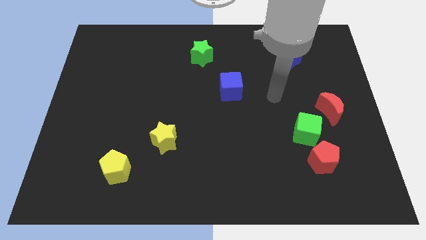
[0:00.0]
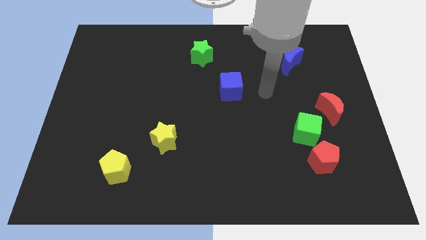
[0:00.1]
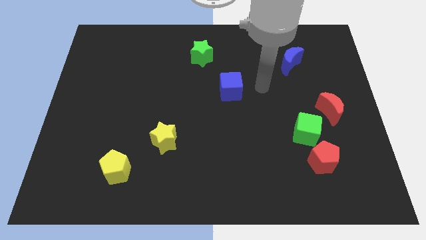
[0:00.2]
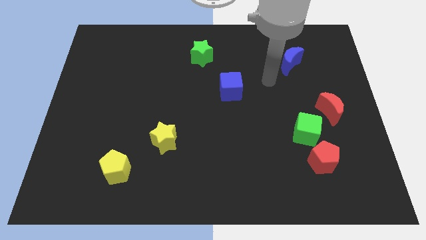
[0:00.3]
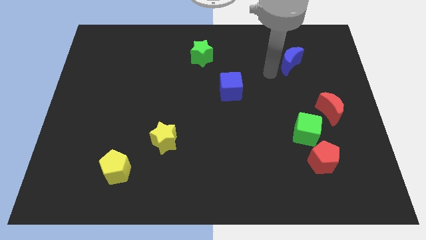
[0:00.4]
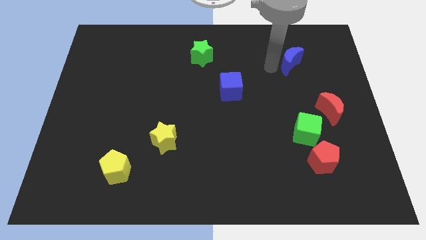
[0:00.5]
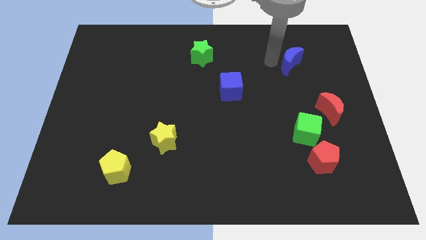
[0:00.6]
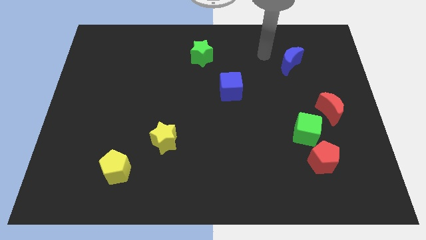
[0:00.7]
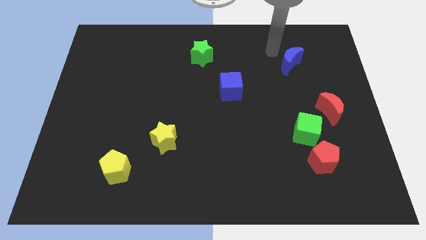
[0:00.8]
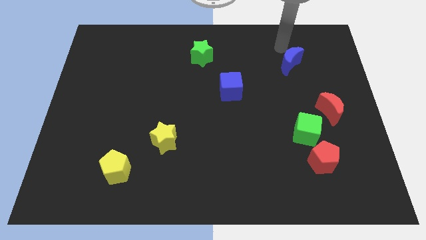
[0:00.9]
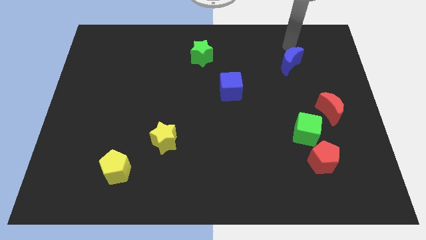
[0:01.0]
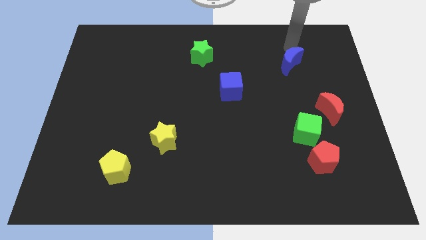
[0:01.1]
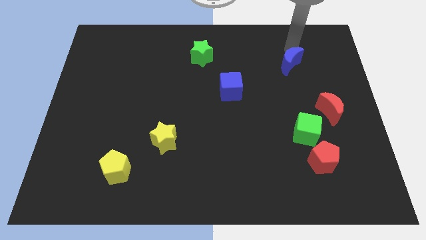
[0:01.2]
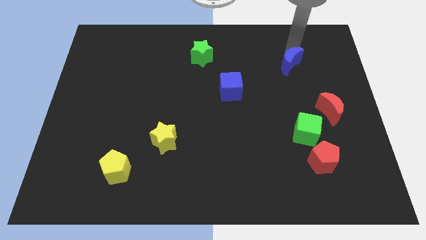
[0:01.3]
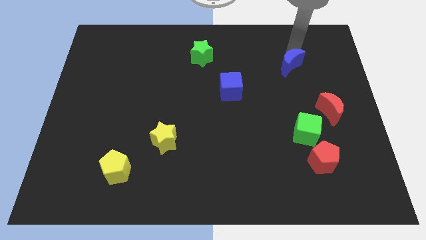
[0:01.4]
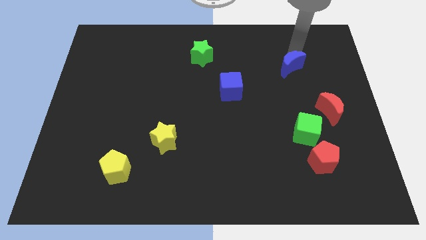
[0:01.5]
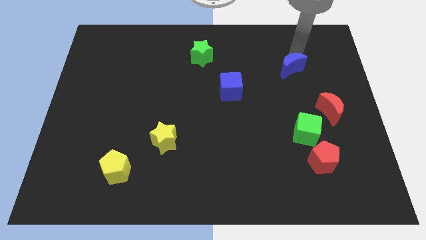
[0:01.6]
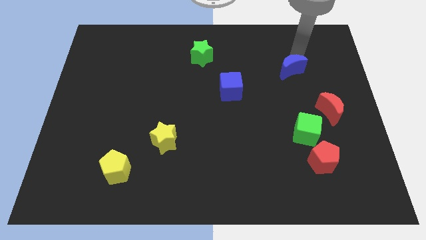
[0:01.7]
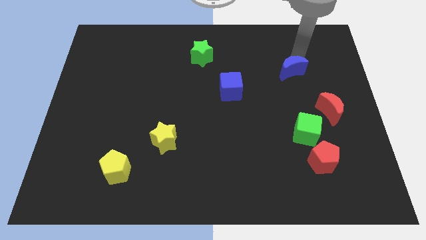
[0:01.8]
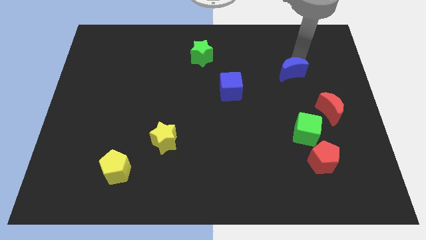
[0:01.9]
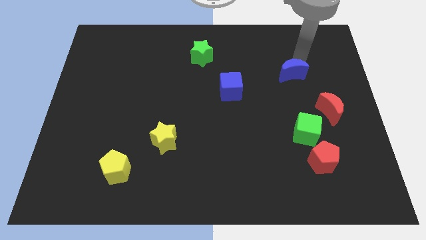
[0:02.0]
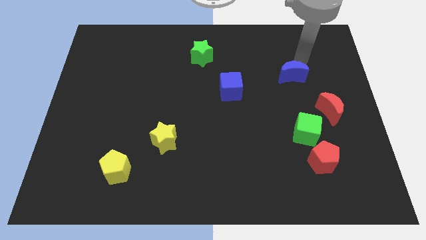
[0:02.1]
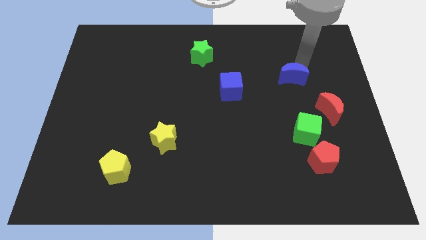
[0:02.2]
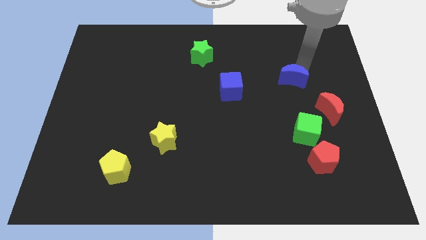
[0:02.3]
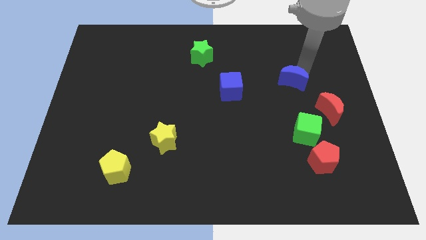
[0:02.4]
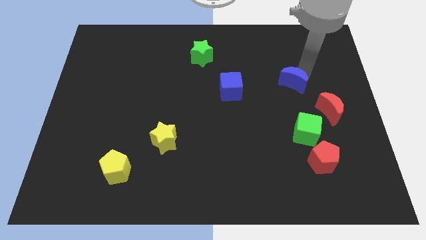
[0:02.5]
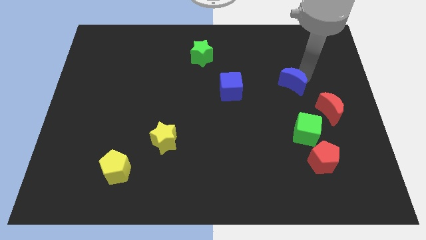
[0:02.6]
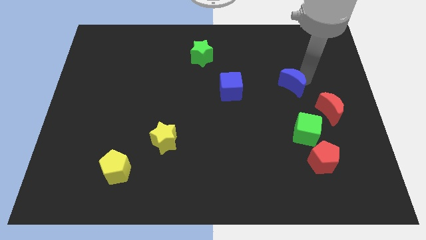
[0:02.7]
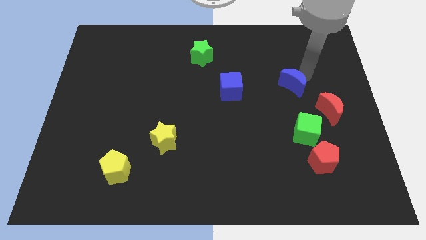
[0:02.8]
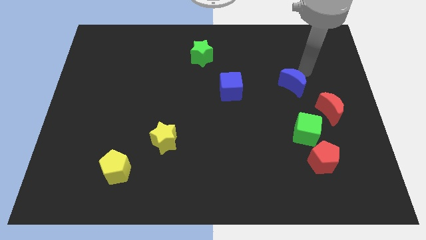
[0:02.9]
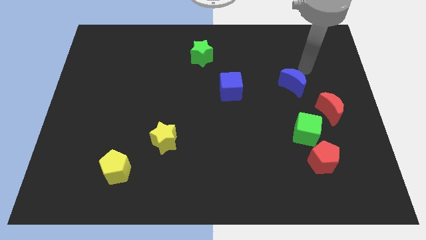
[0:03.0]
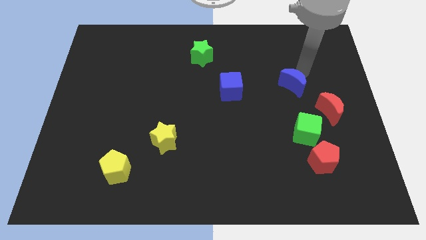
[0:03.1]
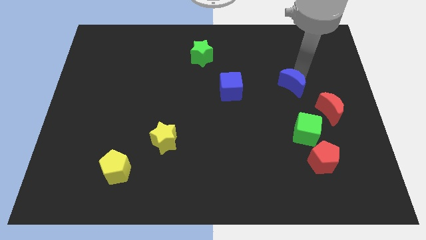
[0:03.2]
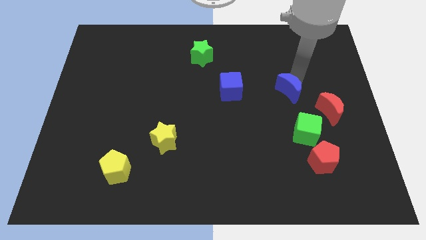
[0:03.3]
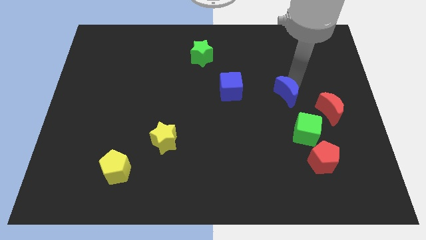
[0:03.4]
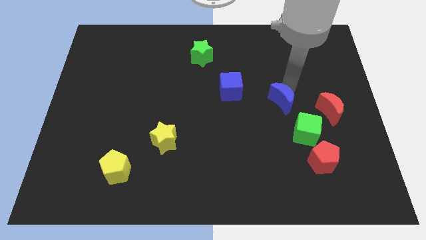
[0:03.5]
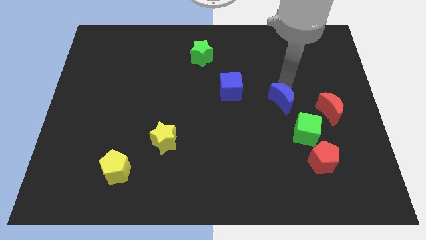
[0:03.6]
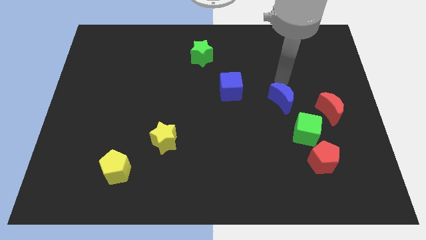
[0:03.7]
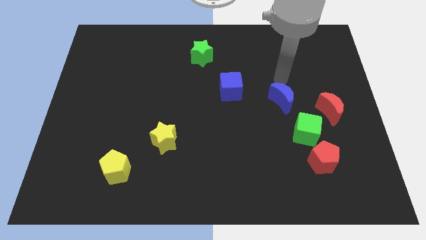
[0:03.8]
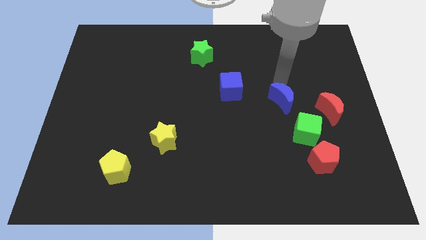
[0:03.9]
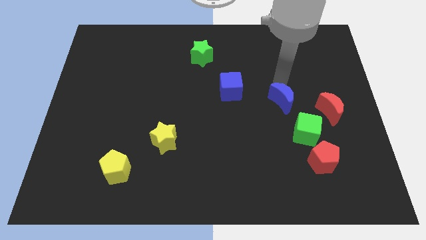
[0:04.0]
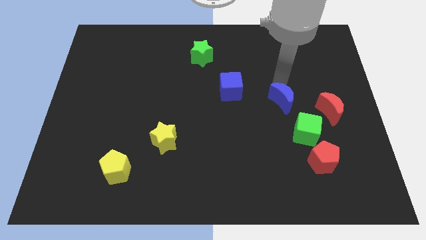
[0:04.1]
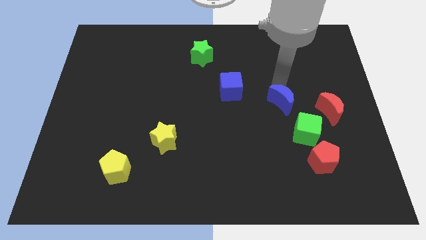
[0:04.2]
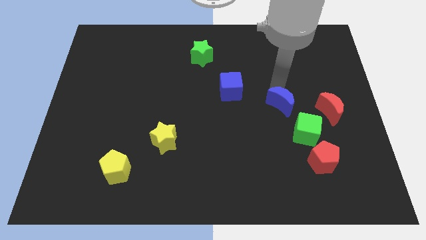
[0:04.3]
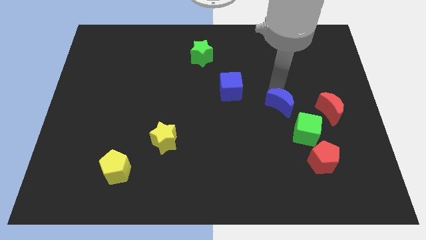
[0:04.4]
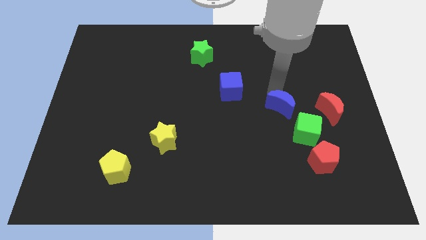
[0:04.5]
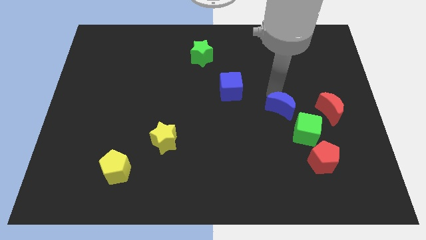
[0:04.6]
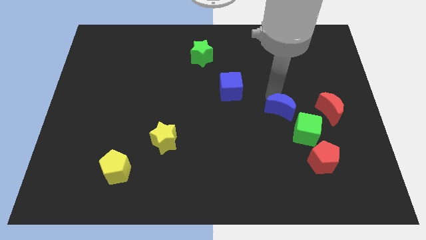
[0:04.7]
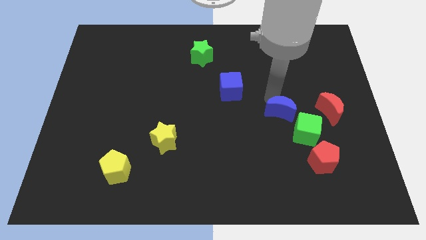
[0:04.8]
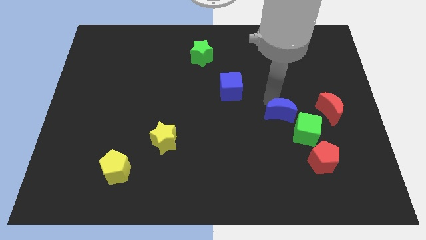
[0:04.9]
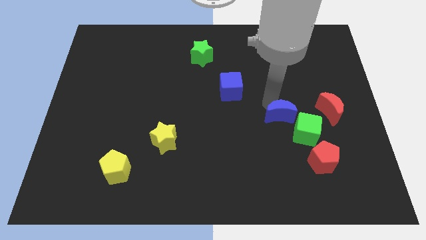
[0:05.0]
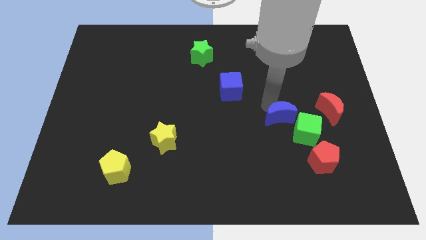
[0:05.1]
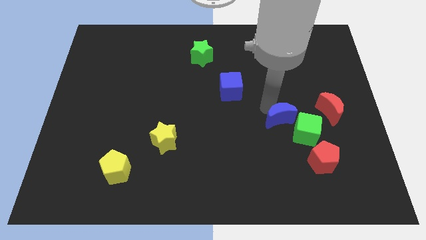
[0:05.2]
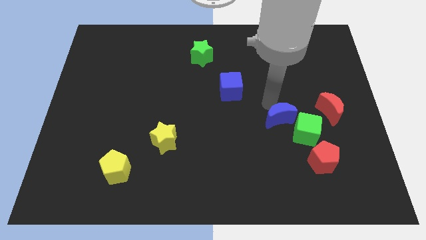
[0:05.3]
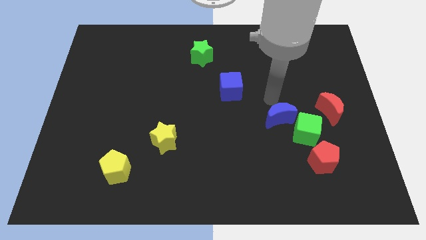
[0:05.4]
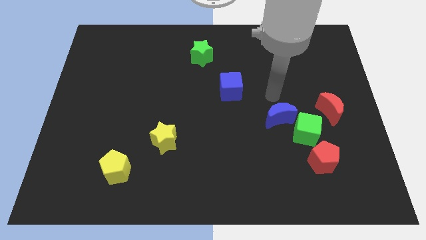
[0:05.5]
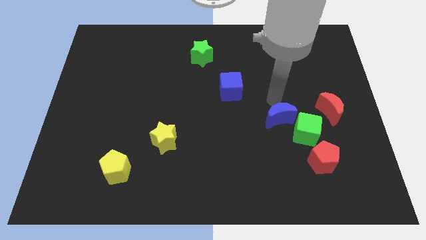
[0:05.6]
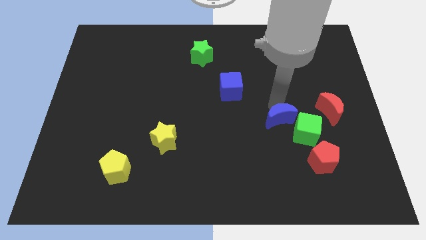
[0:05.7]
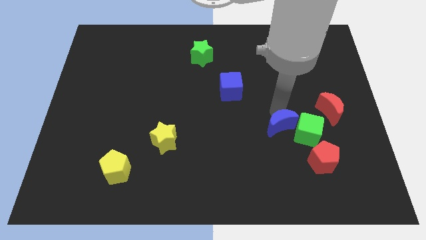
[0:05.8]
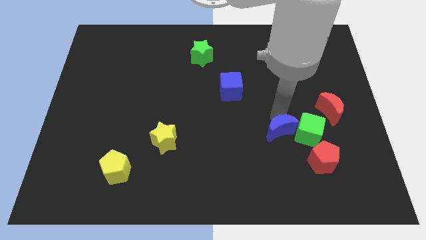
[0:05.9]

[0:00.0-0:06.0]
slide the blue moon downwards

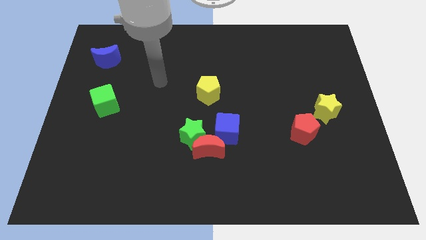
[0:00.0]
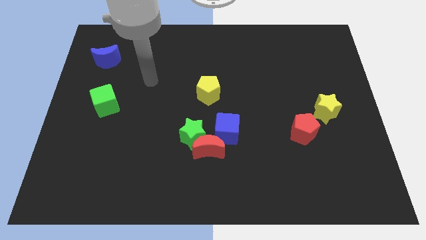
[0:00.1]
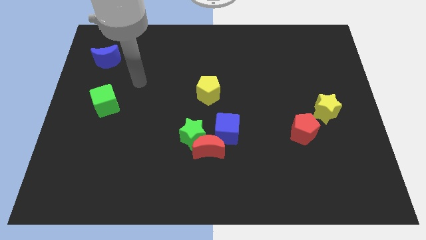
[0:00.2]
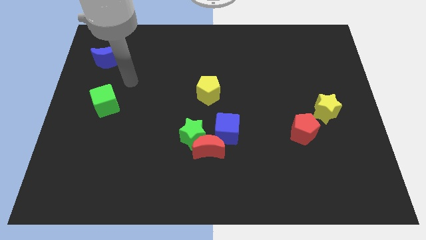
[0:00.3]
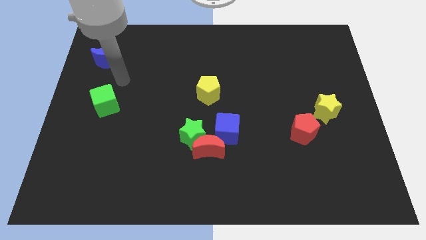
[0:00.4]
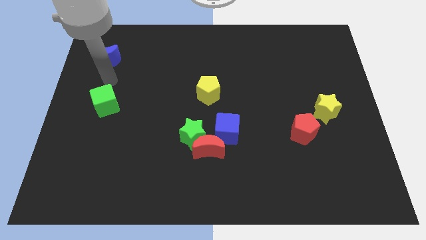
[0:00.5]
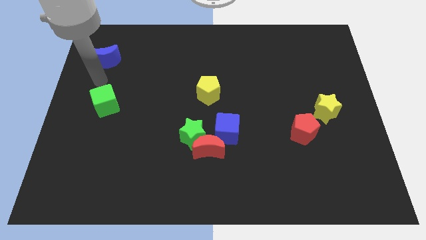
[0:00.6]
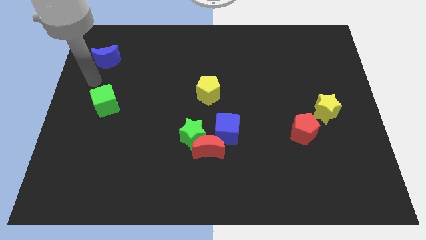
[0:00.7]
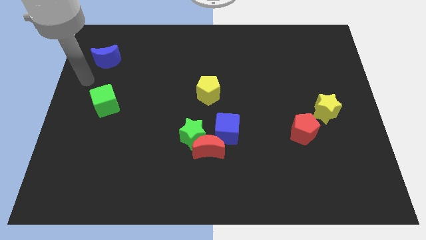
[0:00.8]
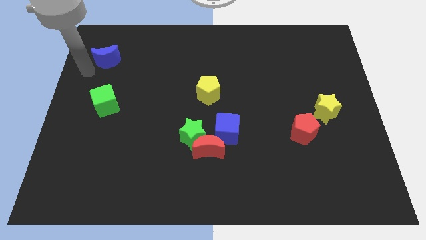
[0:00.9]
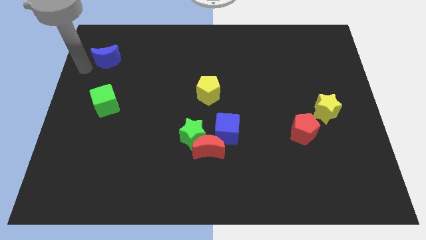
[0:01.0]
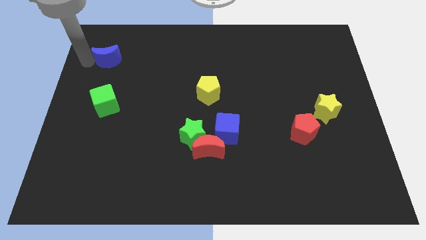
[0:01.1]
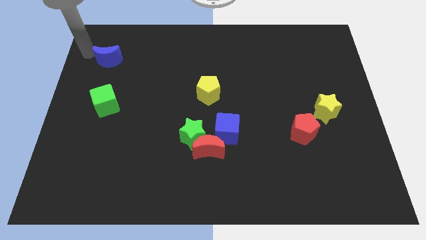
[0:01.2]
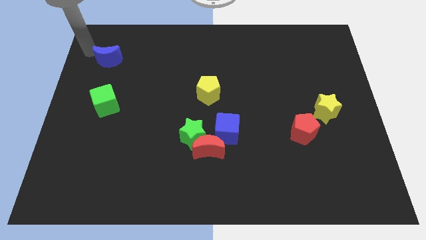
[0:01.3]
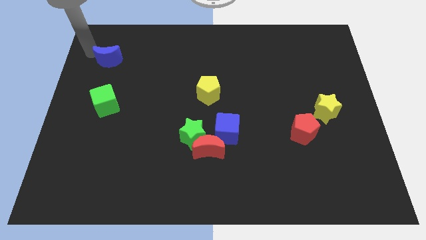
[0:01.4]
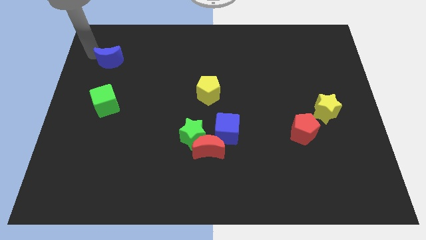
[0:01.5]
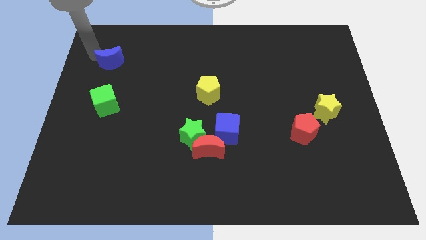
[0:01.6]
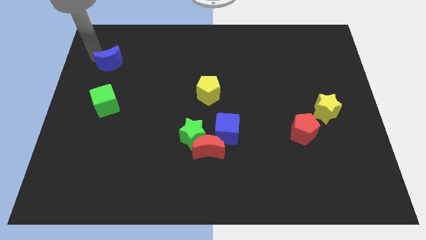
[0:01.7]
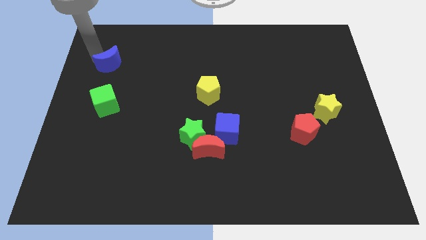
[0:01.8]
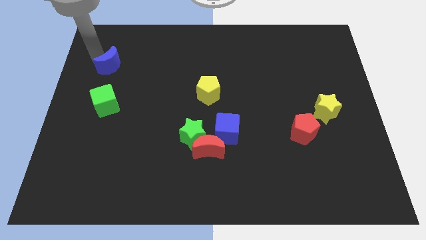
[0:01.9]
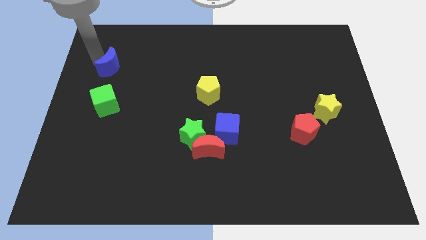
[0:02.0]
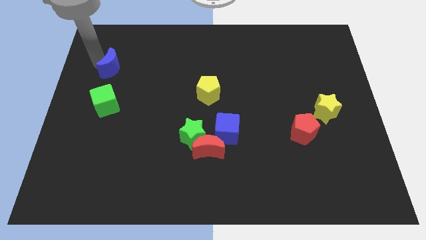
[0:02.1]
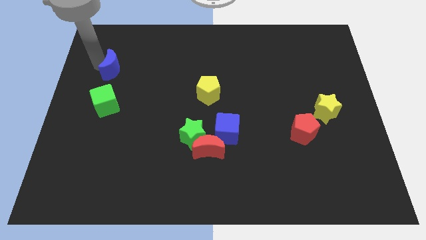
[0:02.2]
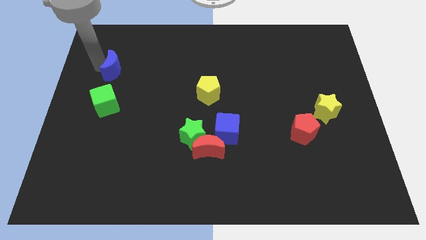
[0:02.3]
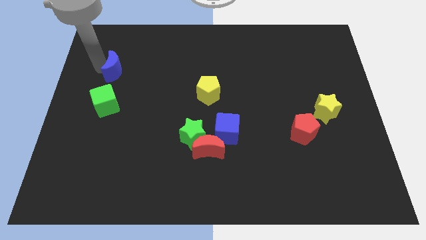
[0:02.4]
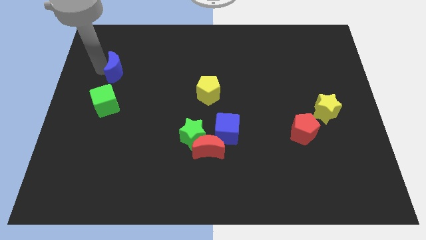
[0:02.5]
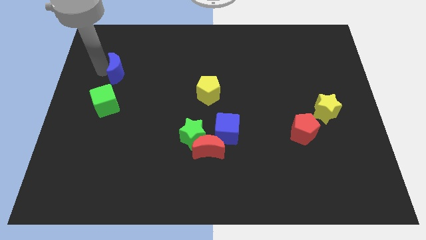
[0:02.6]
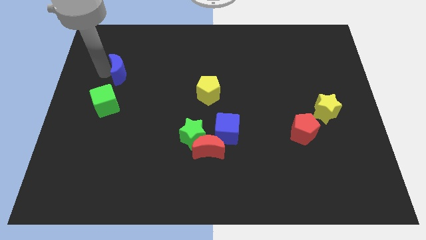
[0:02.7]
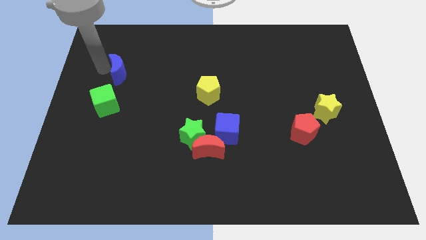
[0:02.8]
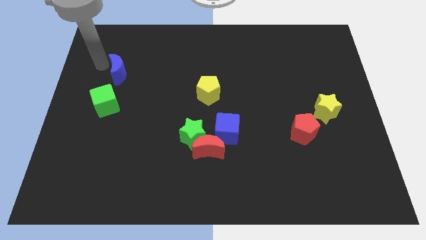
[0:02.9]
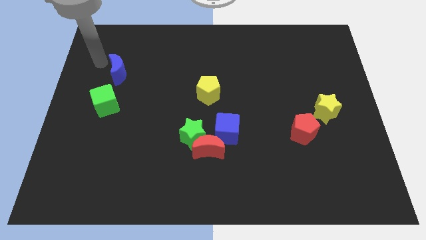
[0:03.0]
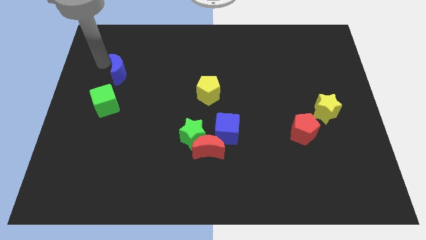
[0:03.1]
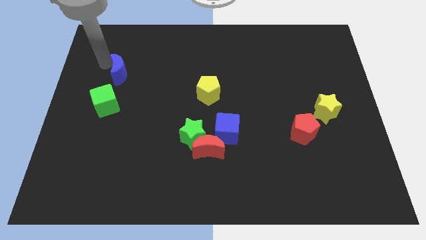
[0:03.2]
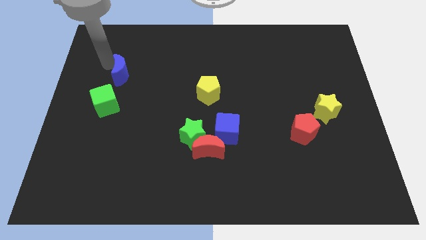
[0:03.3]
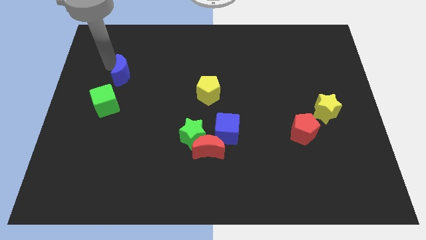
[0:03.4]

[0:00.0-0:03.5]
slightly slide the blue moon diagonally downwards and right
